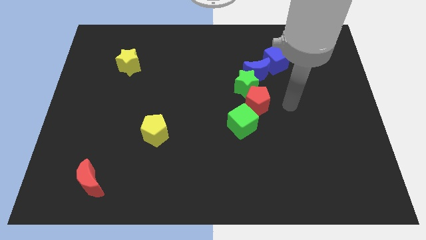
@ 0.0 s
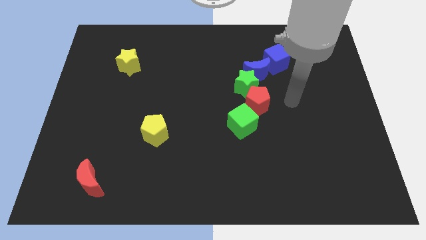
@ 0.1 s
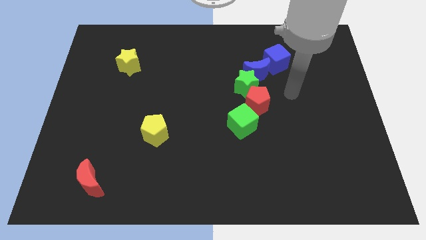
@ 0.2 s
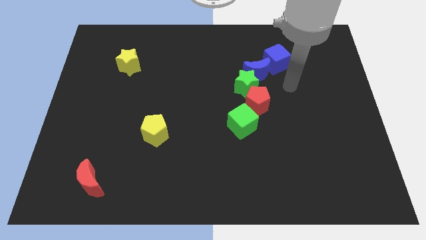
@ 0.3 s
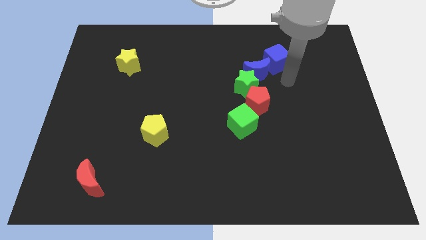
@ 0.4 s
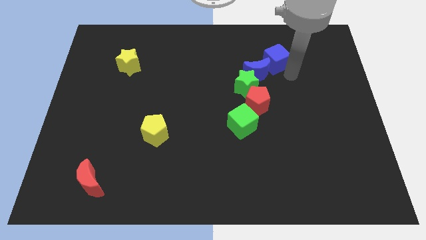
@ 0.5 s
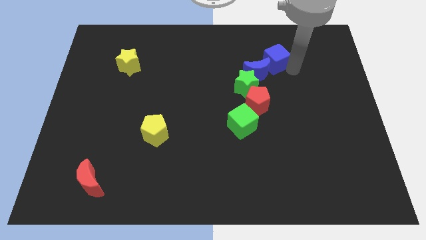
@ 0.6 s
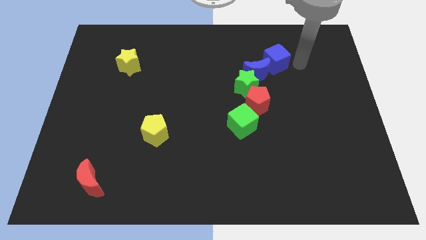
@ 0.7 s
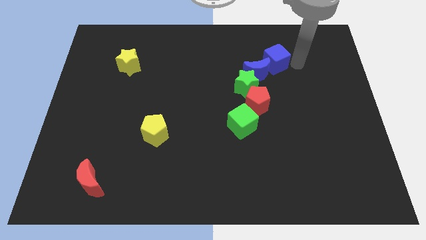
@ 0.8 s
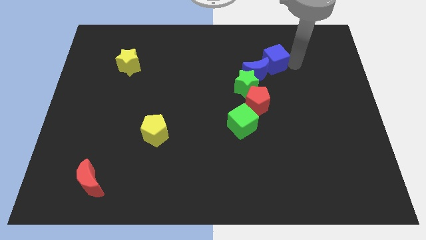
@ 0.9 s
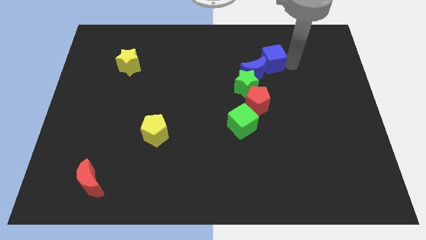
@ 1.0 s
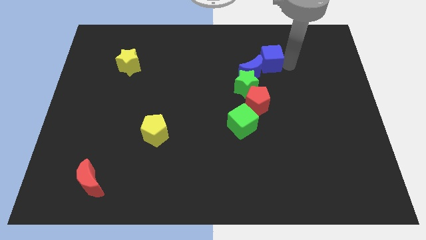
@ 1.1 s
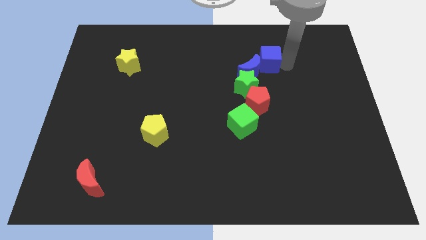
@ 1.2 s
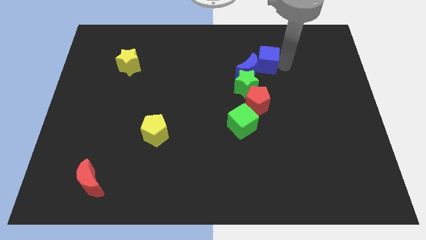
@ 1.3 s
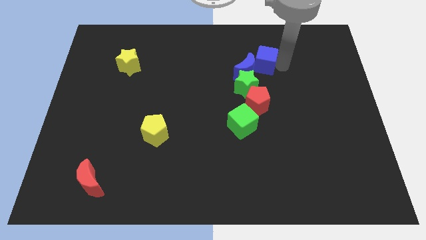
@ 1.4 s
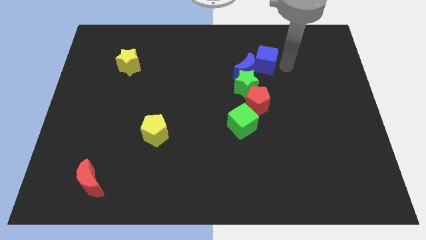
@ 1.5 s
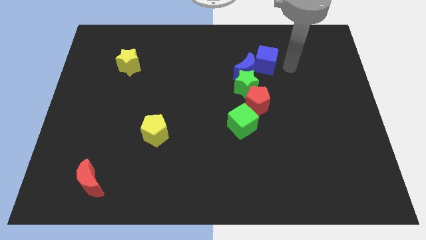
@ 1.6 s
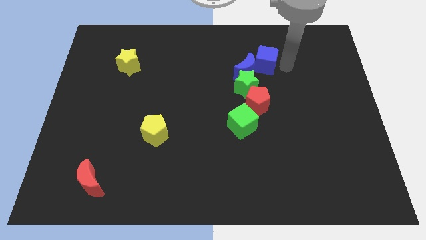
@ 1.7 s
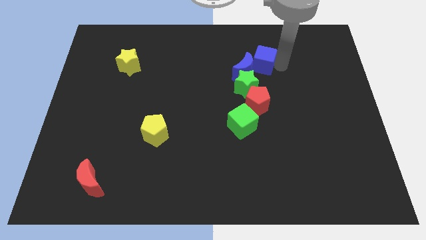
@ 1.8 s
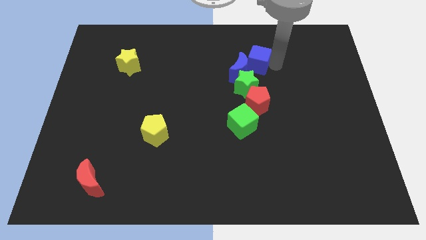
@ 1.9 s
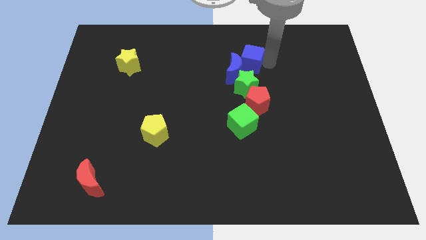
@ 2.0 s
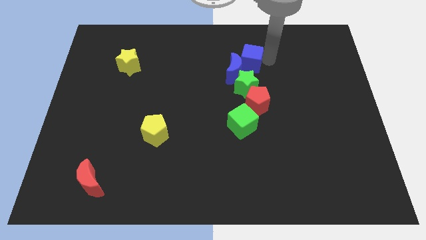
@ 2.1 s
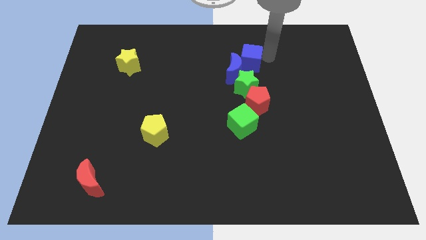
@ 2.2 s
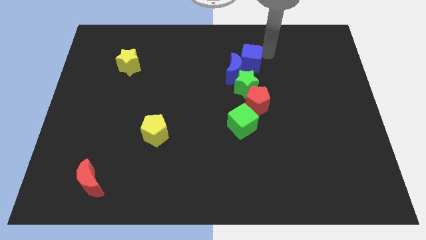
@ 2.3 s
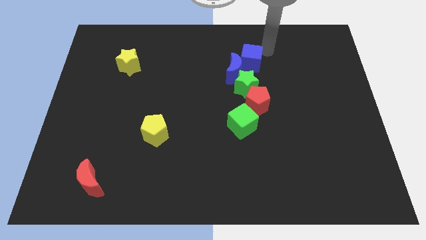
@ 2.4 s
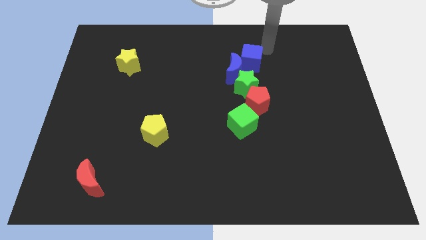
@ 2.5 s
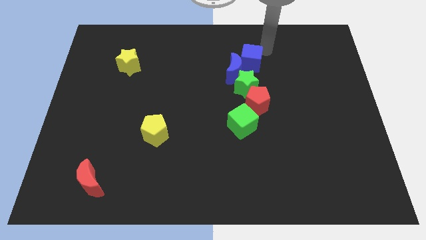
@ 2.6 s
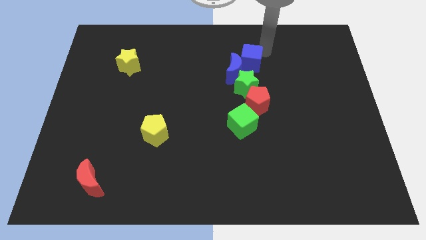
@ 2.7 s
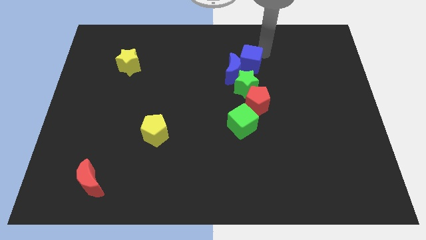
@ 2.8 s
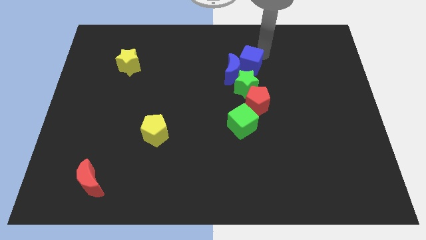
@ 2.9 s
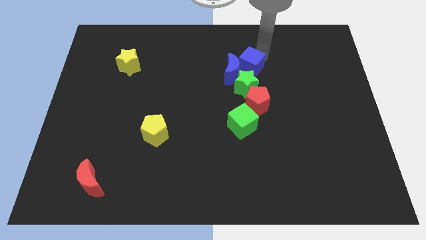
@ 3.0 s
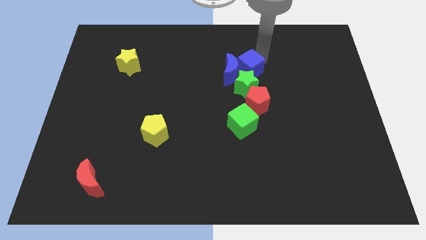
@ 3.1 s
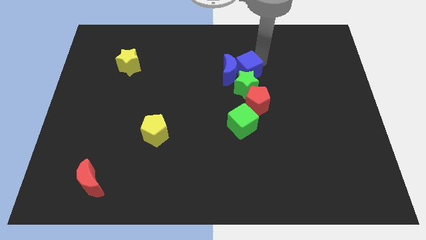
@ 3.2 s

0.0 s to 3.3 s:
slide the blue cube somewhat down and left diagonally

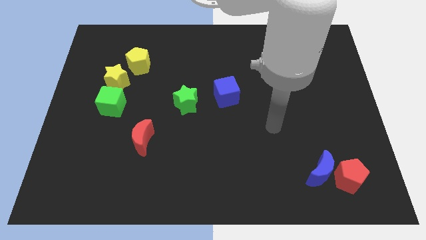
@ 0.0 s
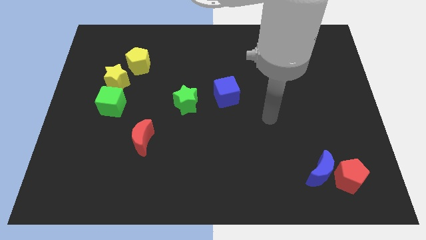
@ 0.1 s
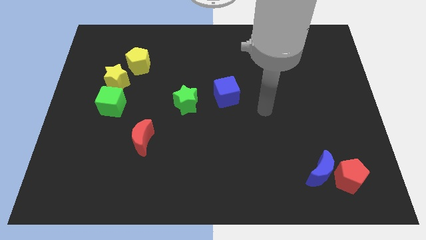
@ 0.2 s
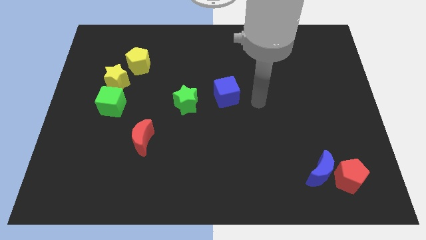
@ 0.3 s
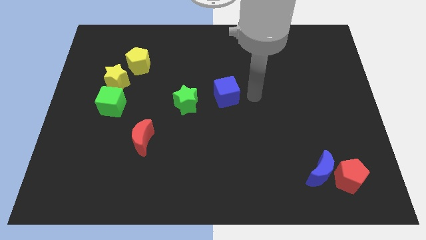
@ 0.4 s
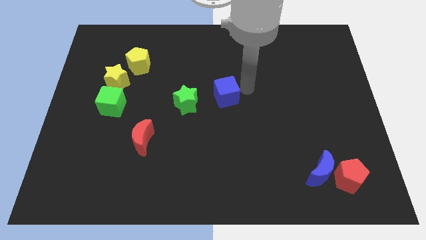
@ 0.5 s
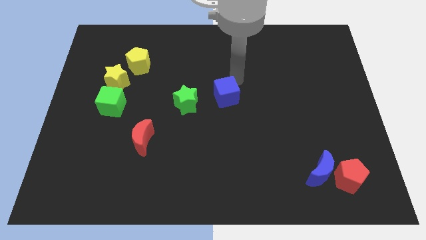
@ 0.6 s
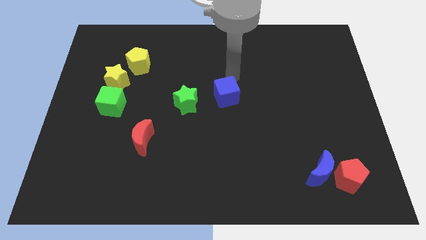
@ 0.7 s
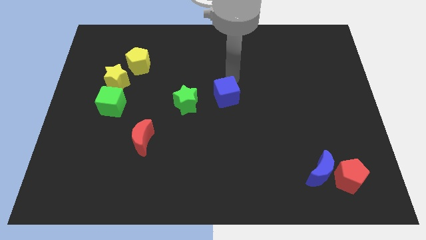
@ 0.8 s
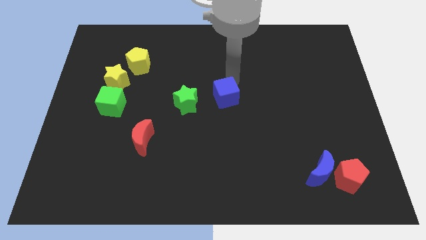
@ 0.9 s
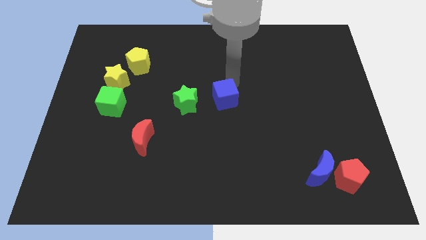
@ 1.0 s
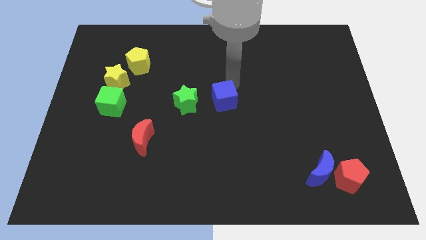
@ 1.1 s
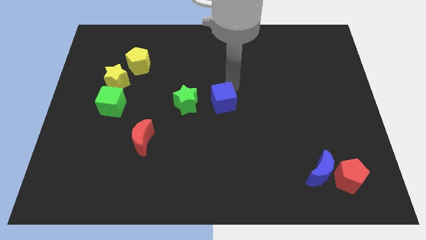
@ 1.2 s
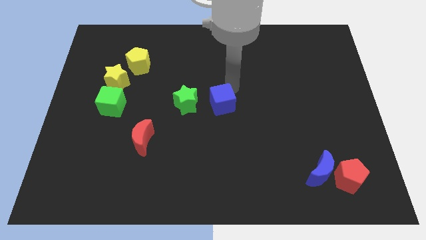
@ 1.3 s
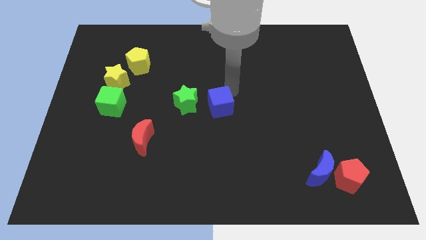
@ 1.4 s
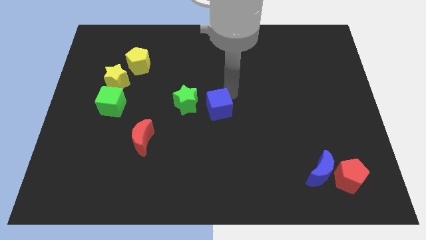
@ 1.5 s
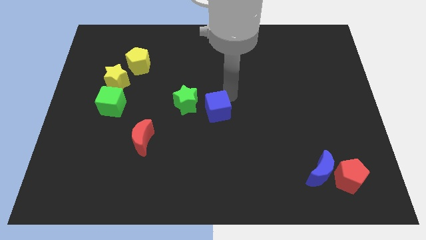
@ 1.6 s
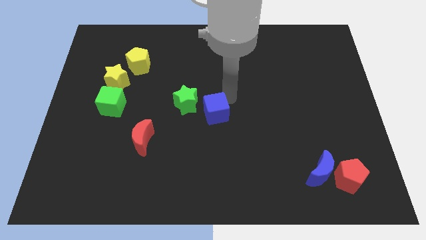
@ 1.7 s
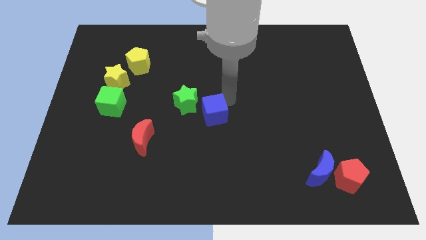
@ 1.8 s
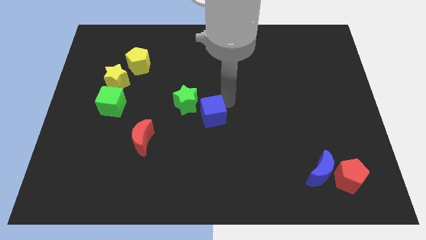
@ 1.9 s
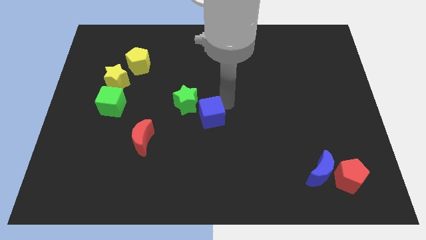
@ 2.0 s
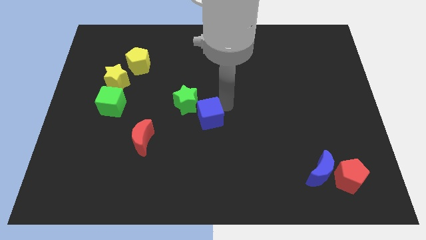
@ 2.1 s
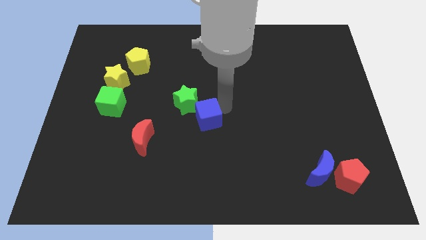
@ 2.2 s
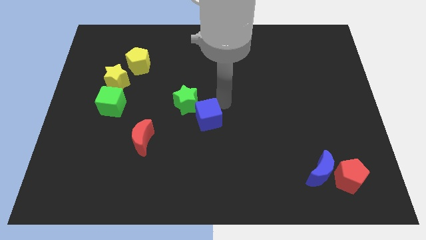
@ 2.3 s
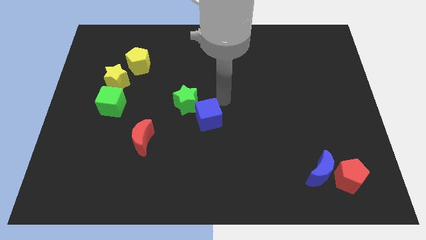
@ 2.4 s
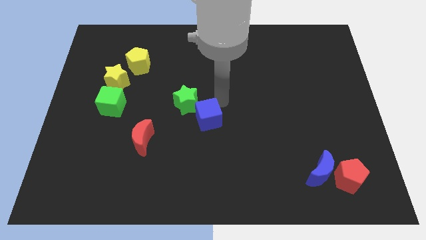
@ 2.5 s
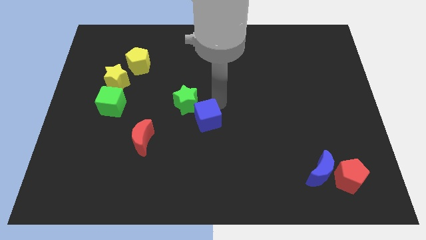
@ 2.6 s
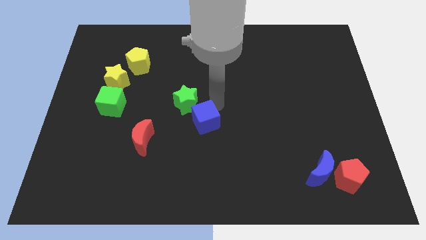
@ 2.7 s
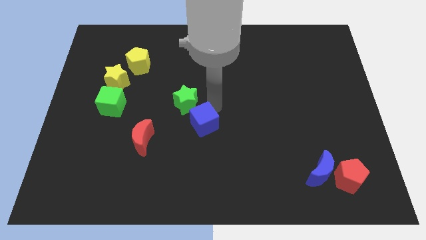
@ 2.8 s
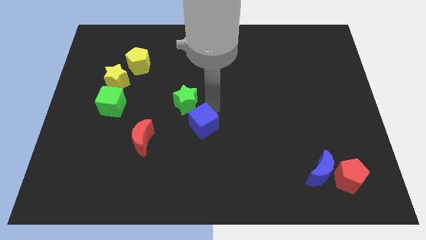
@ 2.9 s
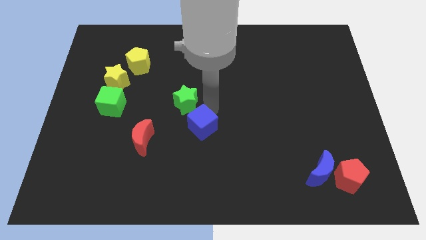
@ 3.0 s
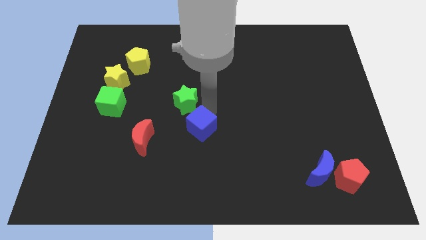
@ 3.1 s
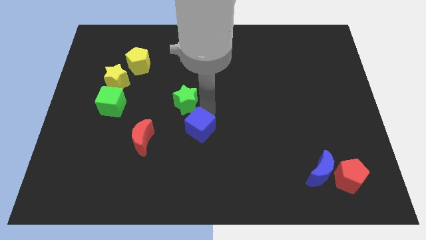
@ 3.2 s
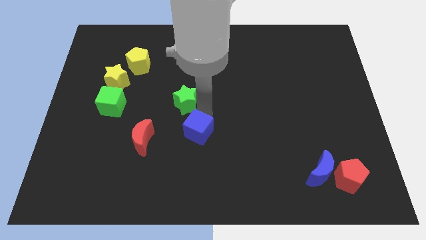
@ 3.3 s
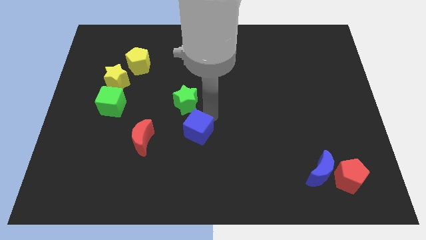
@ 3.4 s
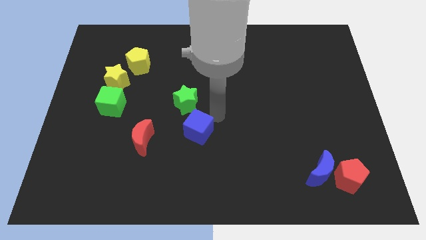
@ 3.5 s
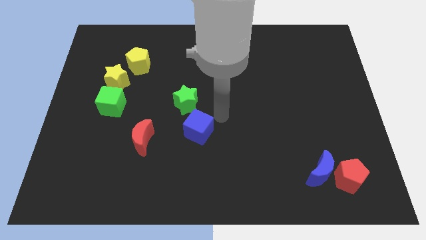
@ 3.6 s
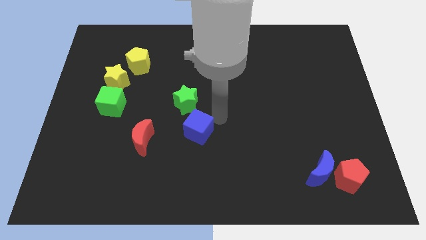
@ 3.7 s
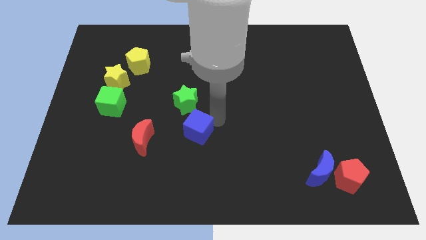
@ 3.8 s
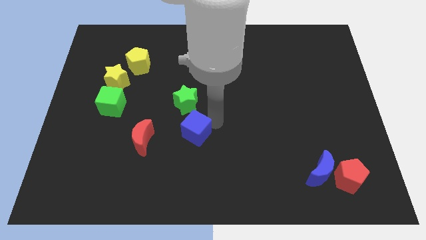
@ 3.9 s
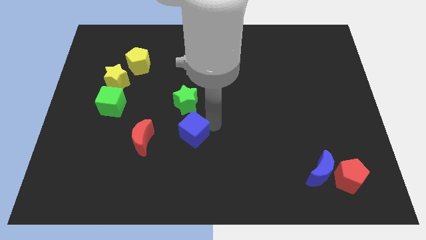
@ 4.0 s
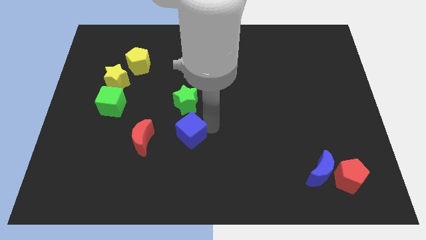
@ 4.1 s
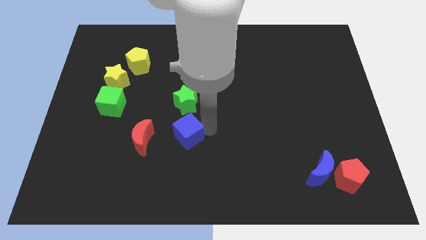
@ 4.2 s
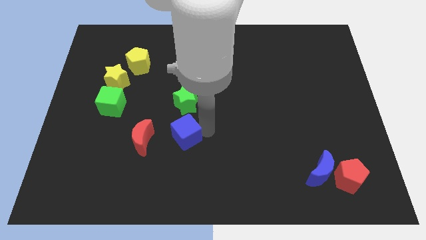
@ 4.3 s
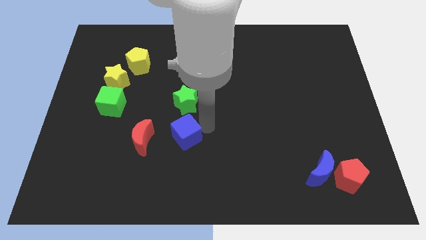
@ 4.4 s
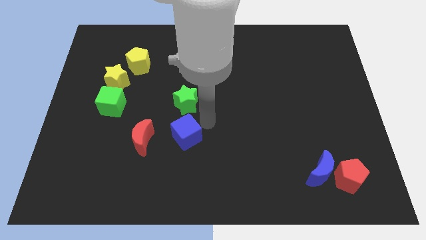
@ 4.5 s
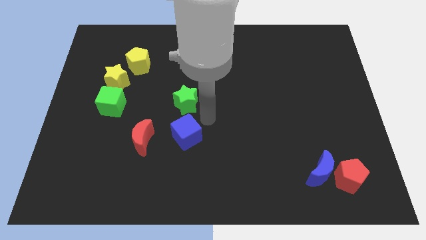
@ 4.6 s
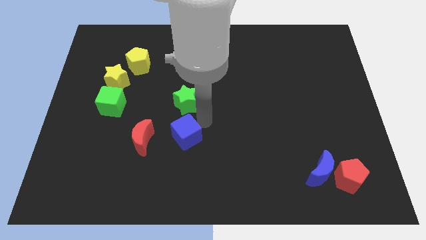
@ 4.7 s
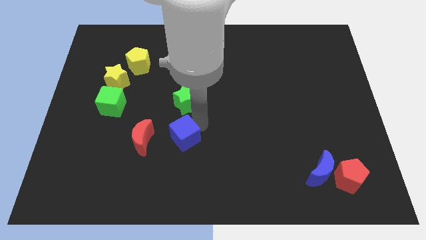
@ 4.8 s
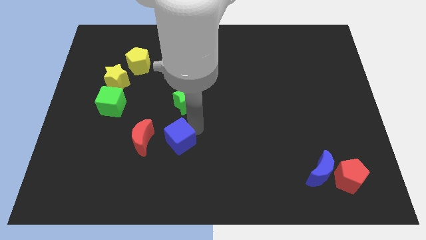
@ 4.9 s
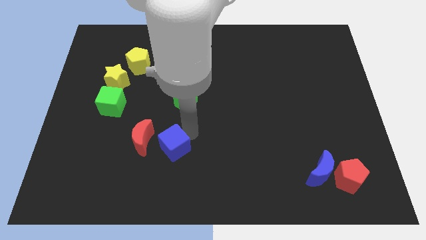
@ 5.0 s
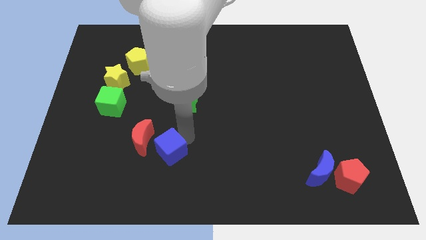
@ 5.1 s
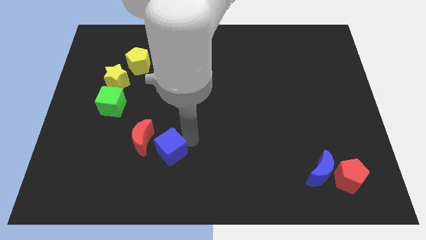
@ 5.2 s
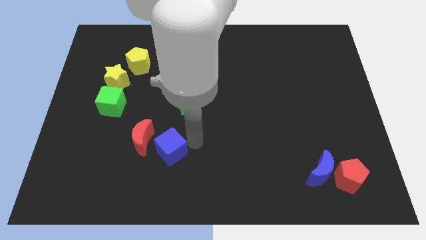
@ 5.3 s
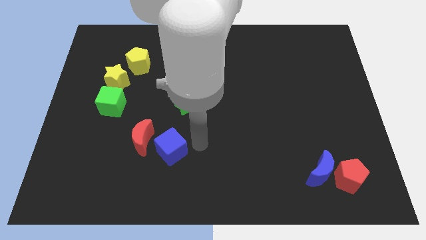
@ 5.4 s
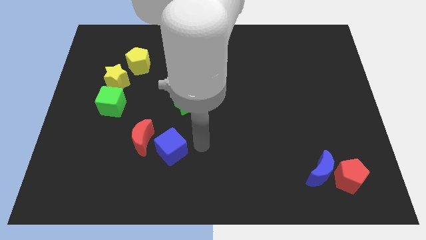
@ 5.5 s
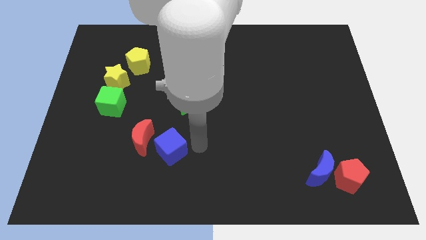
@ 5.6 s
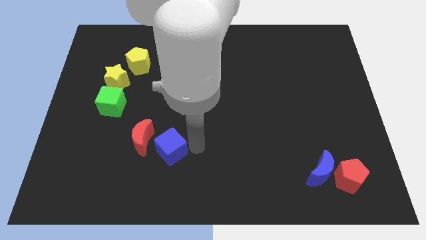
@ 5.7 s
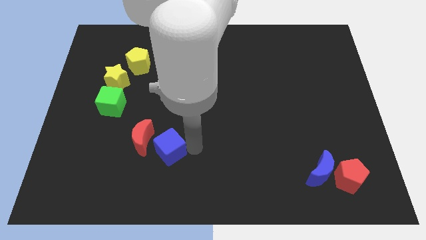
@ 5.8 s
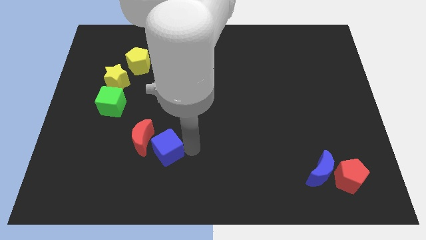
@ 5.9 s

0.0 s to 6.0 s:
push the blue cube downwards and to the left
